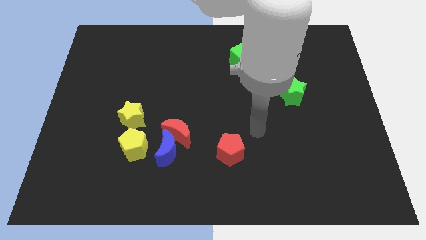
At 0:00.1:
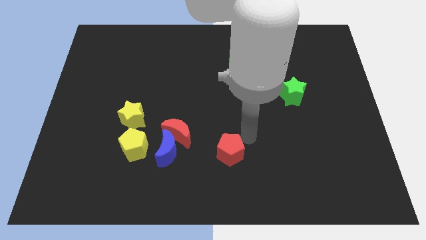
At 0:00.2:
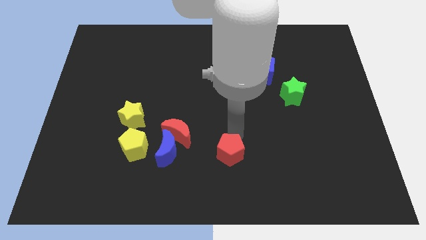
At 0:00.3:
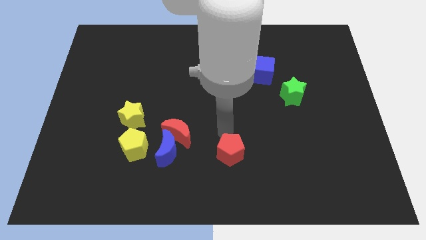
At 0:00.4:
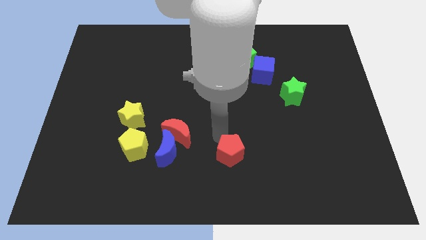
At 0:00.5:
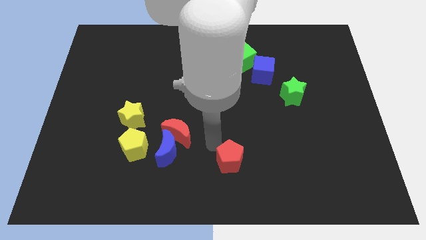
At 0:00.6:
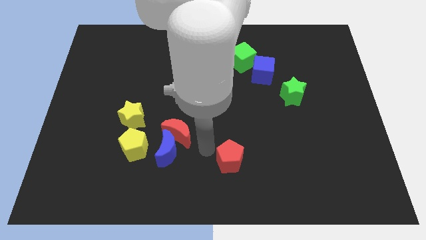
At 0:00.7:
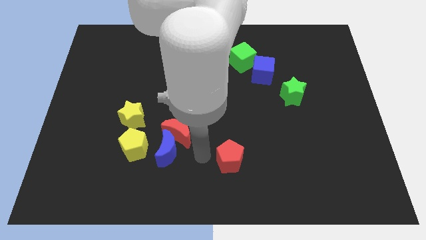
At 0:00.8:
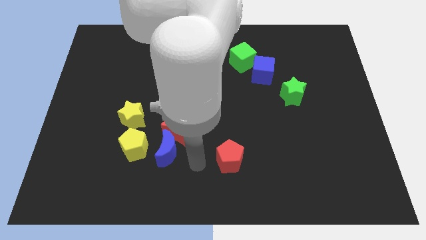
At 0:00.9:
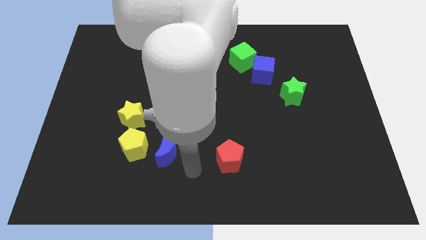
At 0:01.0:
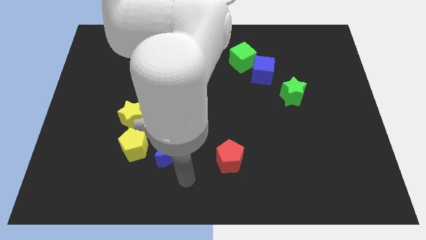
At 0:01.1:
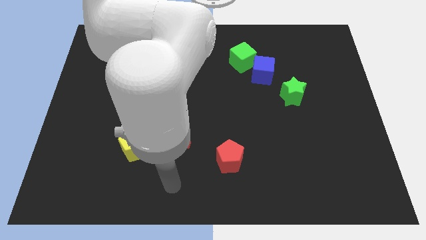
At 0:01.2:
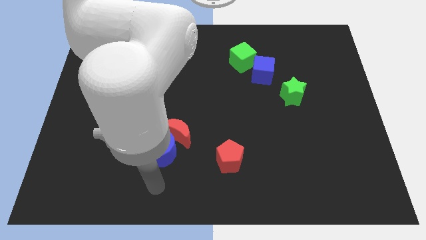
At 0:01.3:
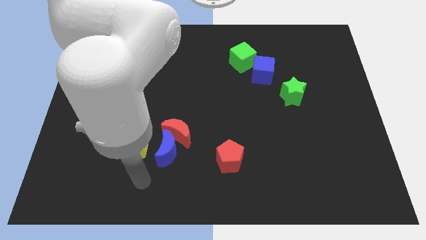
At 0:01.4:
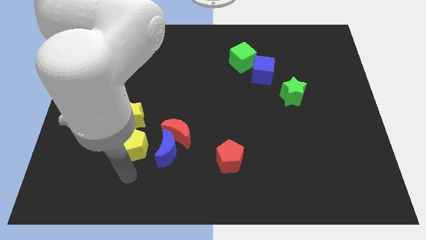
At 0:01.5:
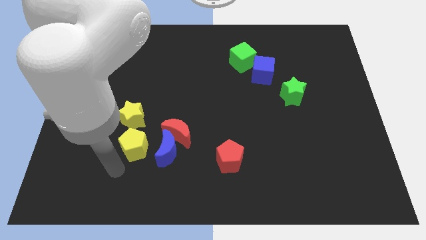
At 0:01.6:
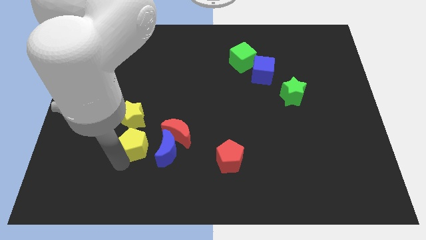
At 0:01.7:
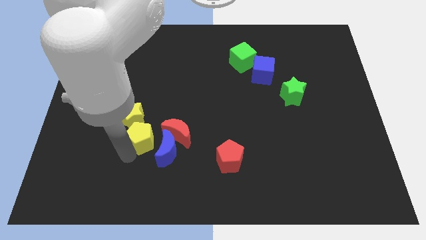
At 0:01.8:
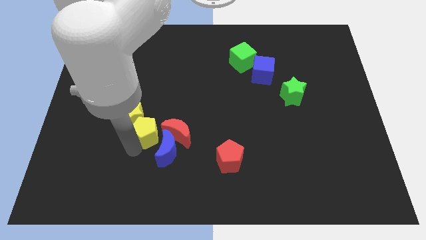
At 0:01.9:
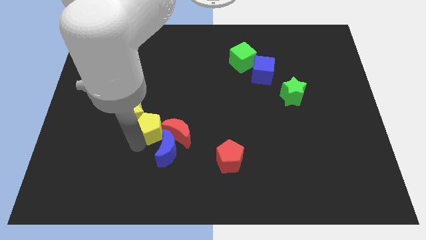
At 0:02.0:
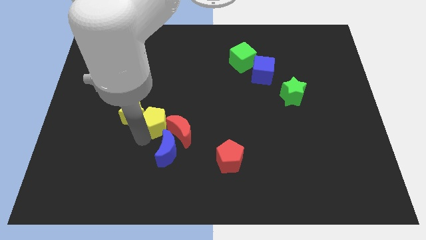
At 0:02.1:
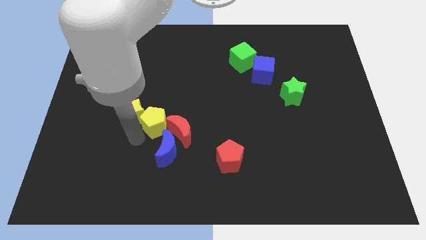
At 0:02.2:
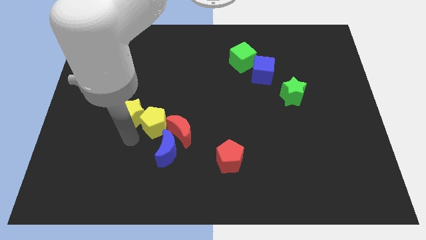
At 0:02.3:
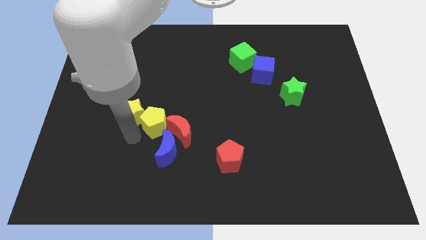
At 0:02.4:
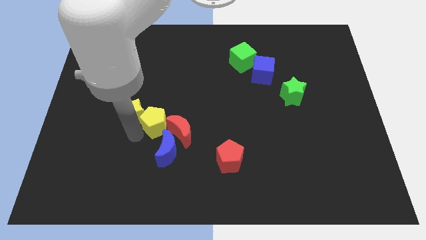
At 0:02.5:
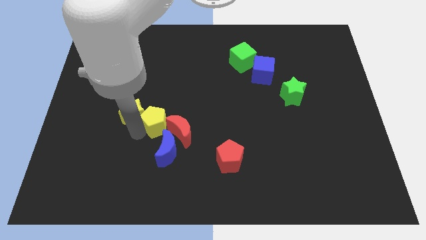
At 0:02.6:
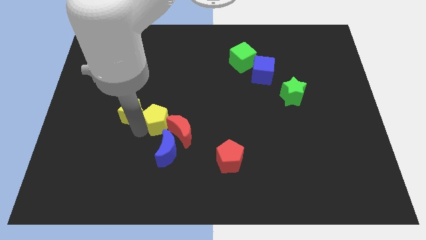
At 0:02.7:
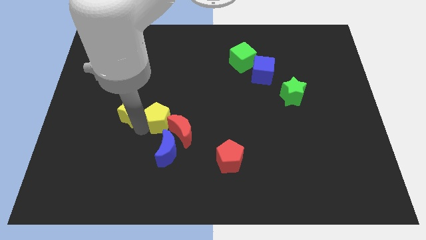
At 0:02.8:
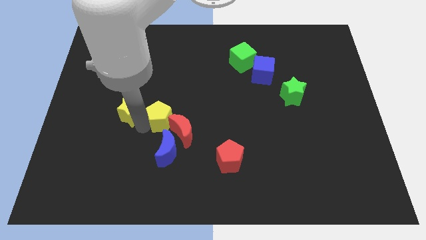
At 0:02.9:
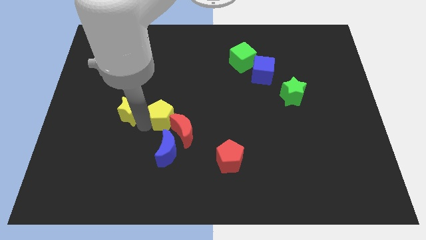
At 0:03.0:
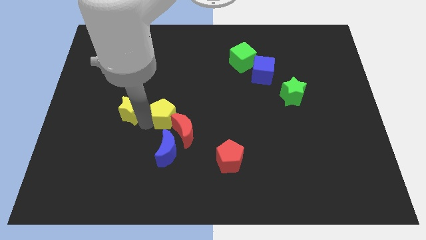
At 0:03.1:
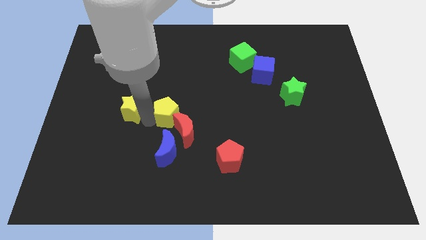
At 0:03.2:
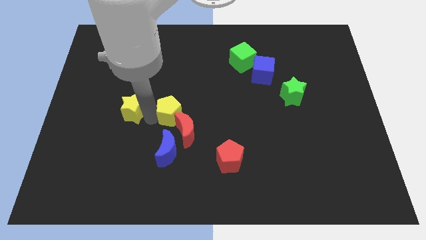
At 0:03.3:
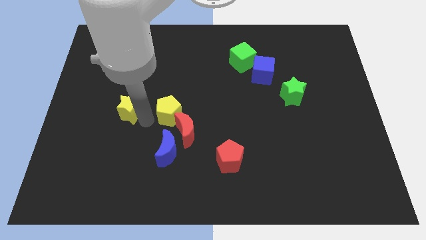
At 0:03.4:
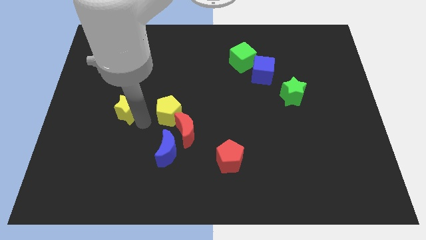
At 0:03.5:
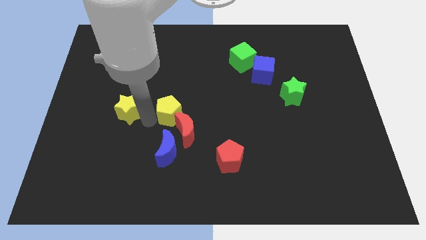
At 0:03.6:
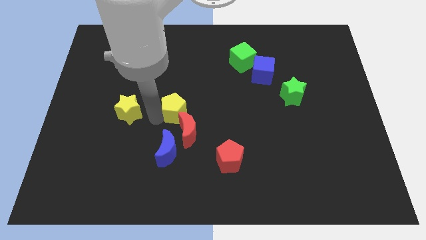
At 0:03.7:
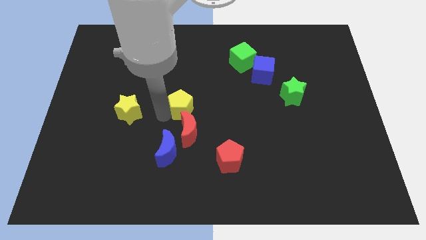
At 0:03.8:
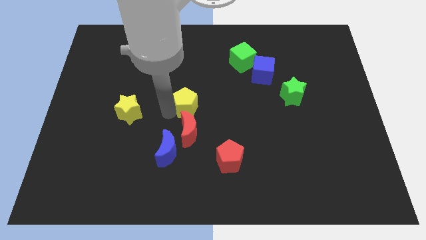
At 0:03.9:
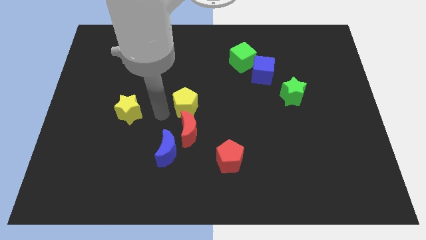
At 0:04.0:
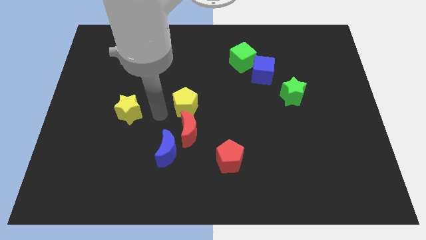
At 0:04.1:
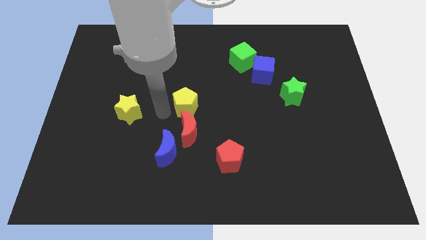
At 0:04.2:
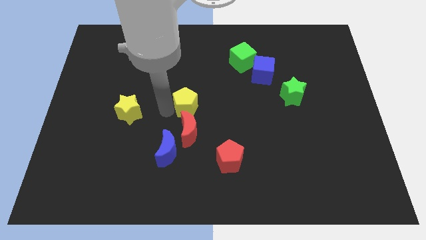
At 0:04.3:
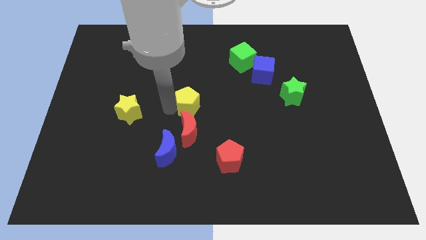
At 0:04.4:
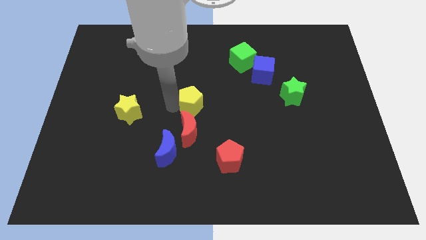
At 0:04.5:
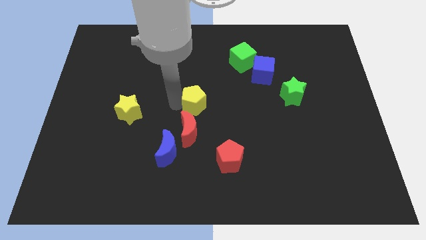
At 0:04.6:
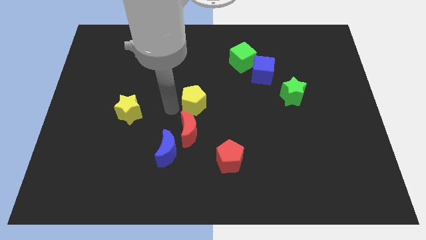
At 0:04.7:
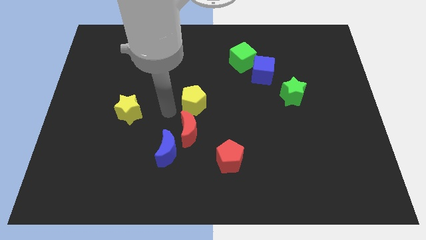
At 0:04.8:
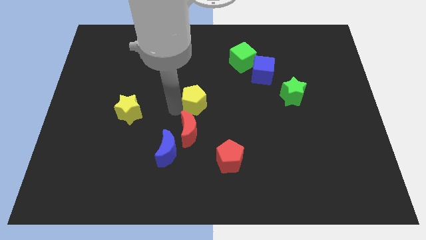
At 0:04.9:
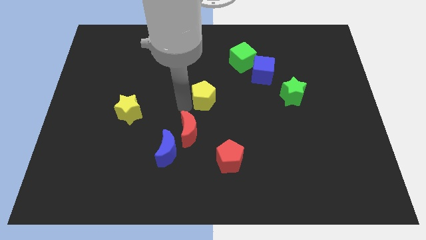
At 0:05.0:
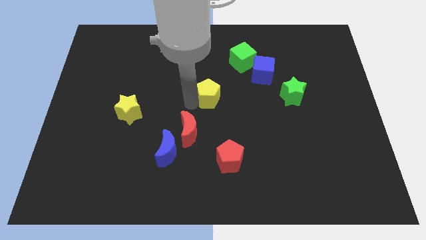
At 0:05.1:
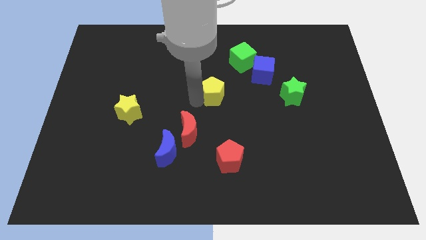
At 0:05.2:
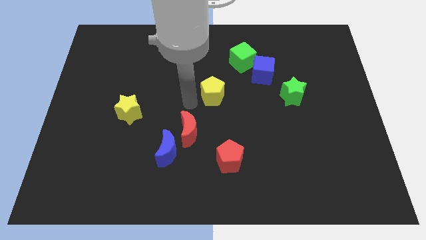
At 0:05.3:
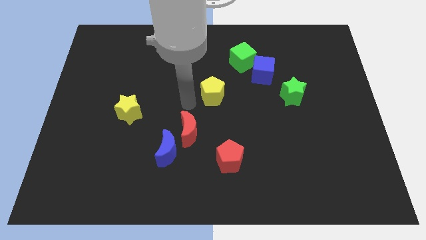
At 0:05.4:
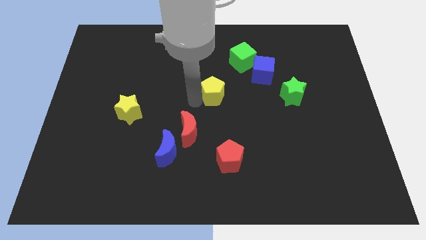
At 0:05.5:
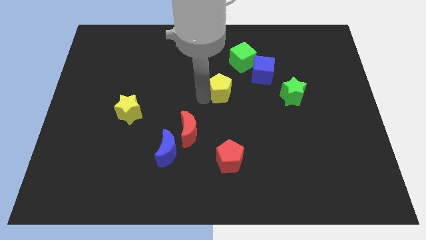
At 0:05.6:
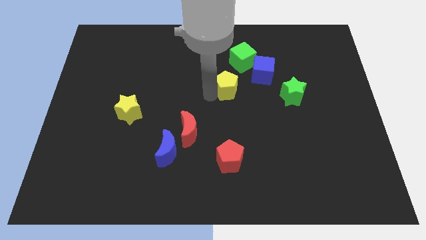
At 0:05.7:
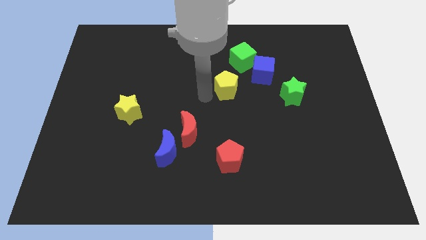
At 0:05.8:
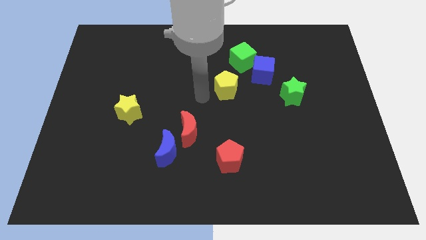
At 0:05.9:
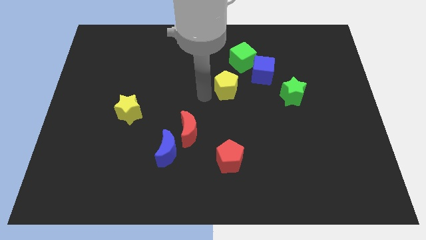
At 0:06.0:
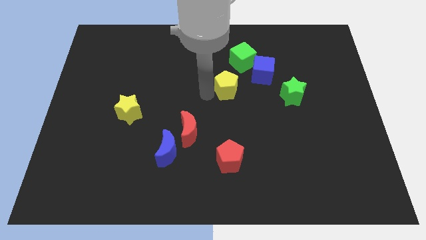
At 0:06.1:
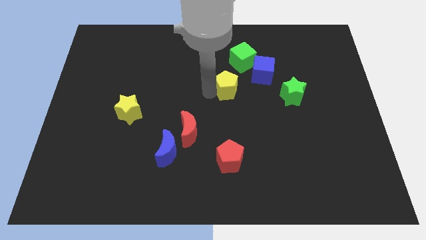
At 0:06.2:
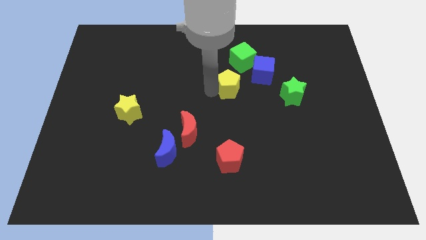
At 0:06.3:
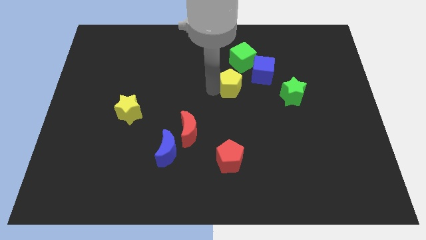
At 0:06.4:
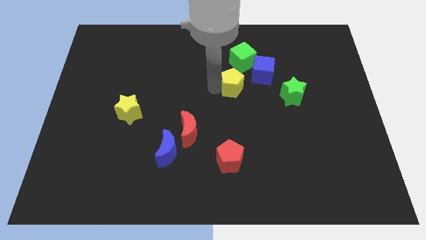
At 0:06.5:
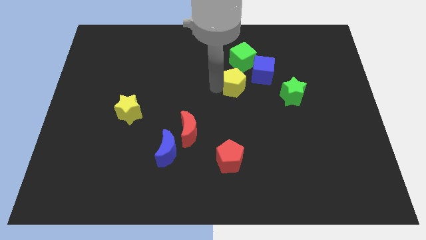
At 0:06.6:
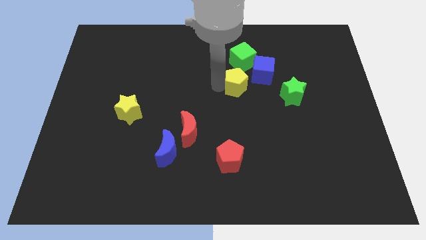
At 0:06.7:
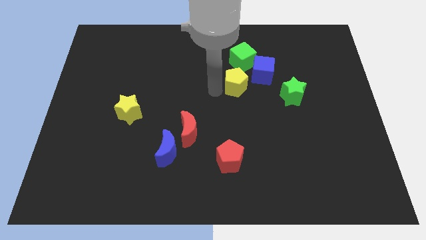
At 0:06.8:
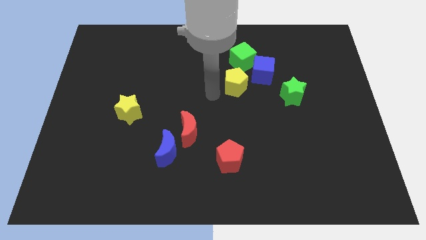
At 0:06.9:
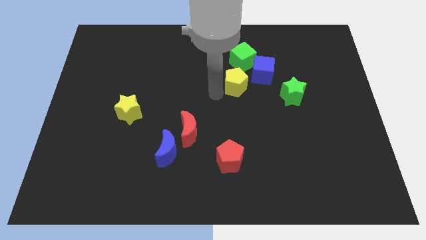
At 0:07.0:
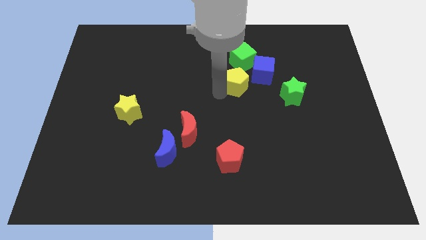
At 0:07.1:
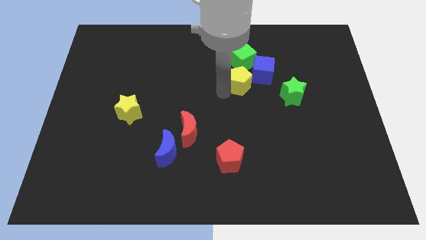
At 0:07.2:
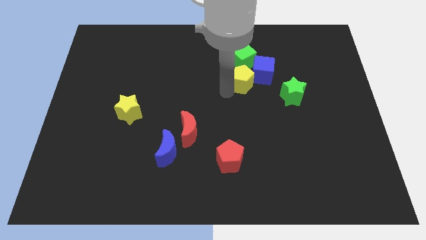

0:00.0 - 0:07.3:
put the yellow pentagon close to the blue cube
